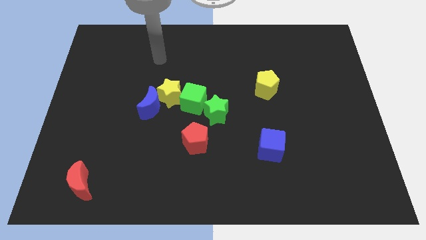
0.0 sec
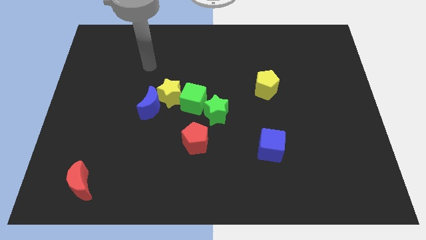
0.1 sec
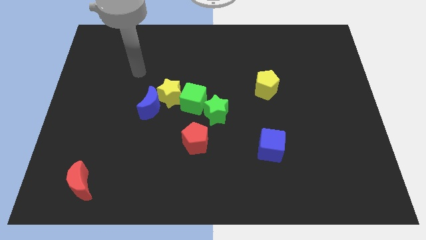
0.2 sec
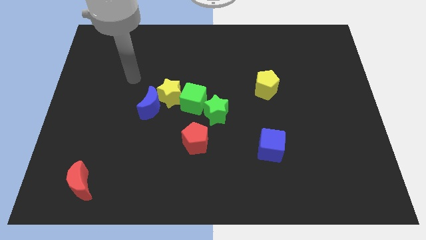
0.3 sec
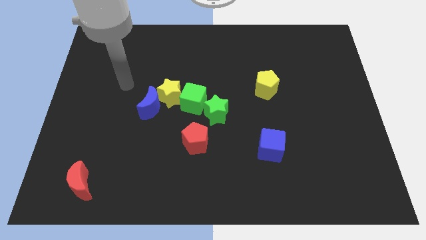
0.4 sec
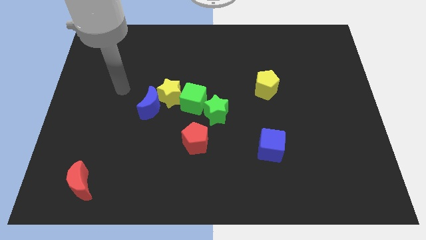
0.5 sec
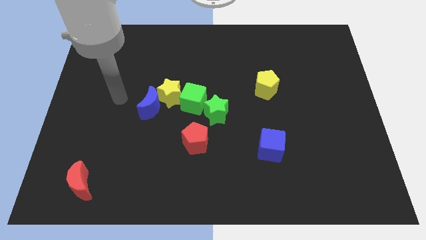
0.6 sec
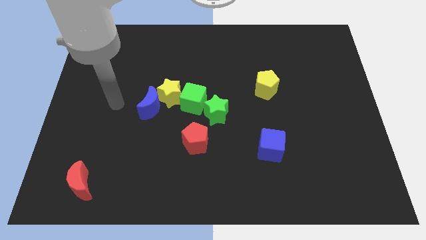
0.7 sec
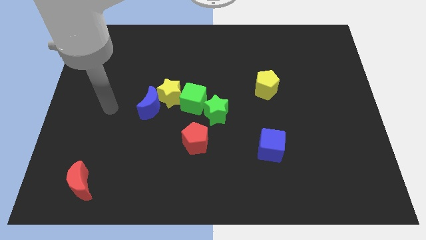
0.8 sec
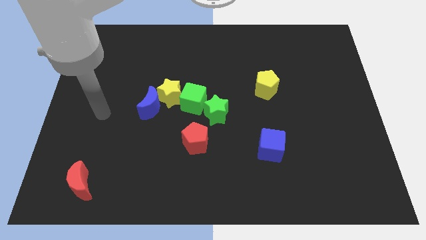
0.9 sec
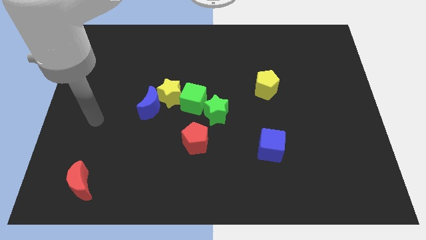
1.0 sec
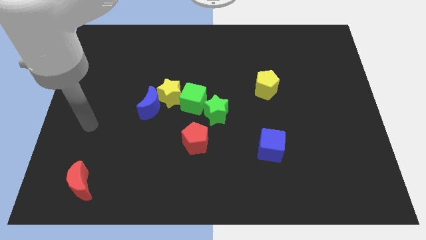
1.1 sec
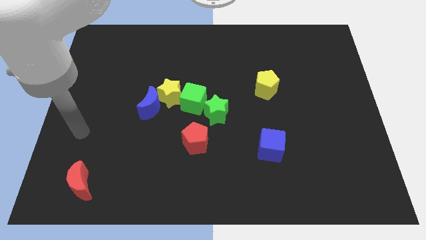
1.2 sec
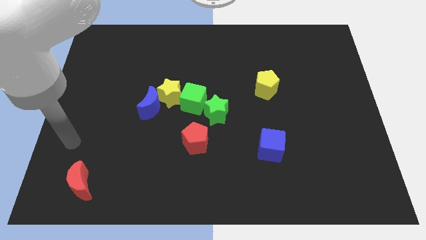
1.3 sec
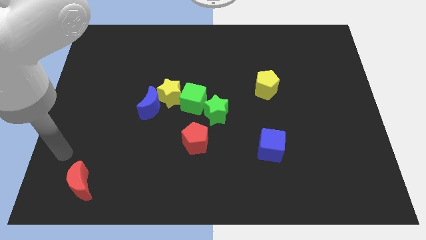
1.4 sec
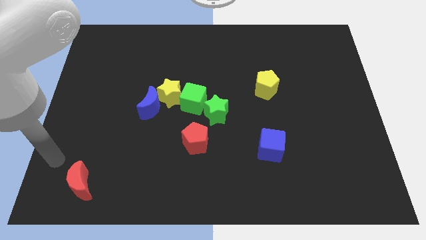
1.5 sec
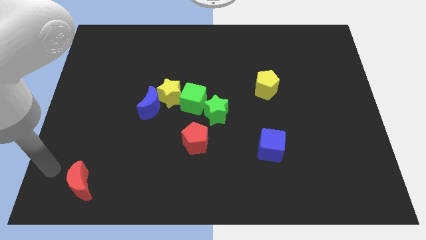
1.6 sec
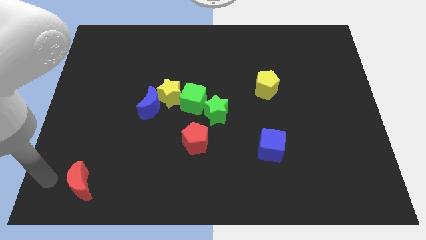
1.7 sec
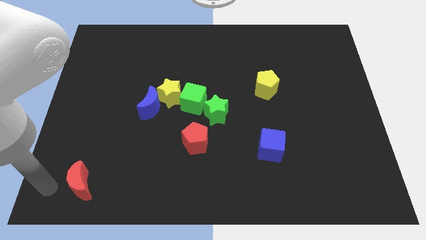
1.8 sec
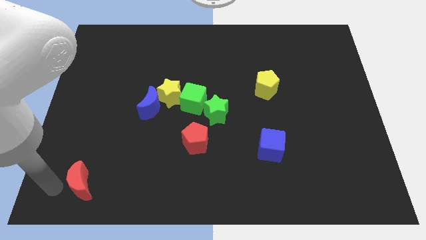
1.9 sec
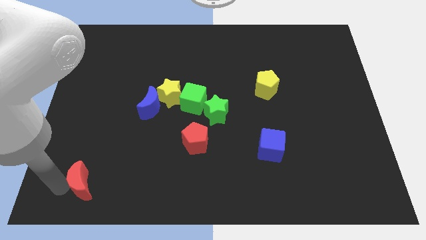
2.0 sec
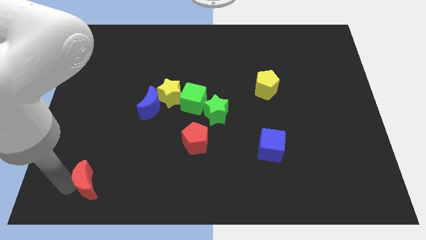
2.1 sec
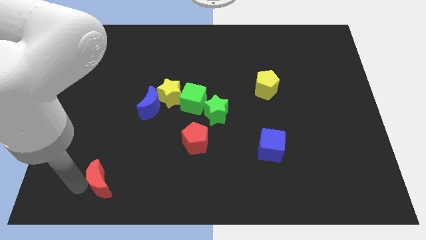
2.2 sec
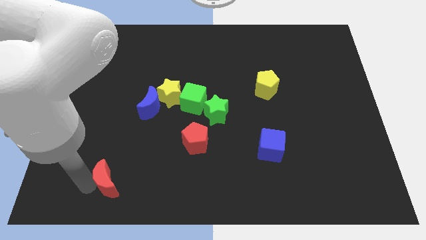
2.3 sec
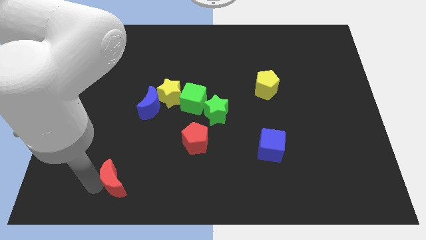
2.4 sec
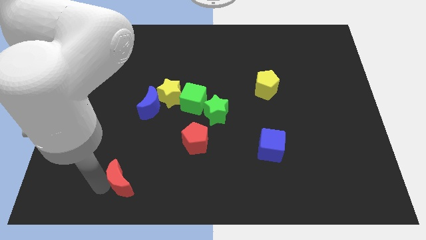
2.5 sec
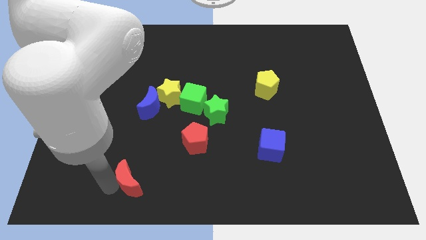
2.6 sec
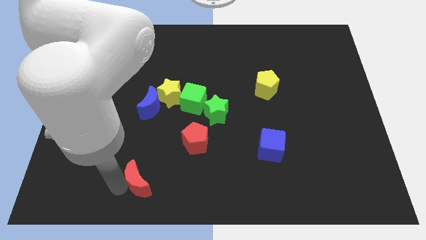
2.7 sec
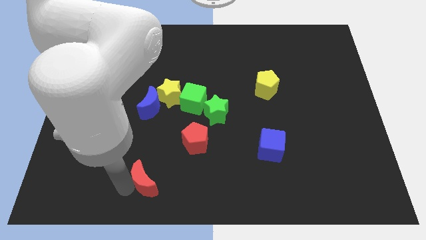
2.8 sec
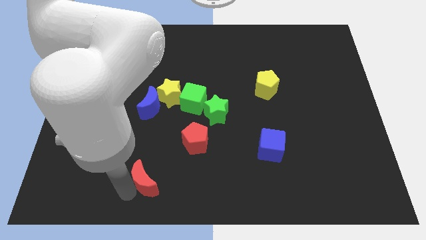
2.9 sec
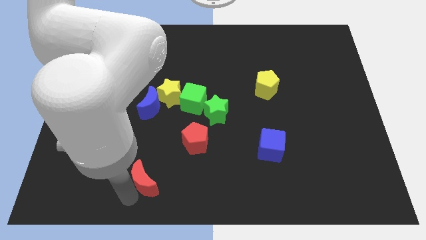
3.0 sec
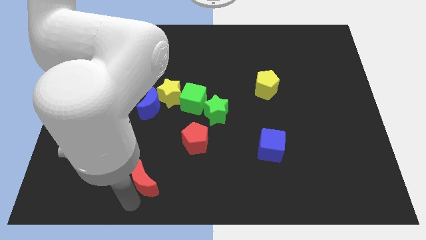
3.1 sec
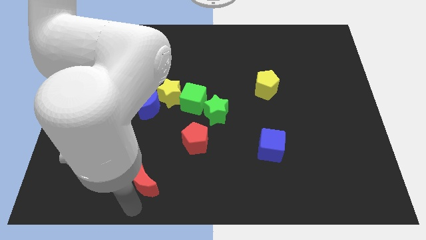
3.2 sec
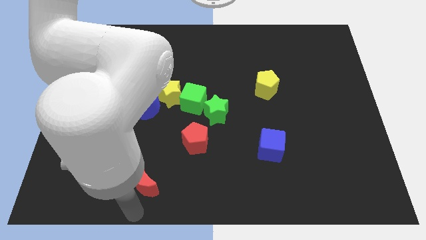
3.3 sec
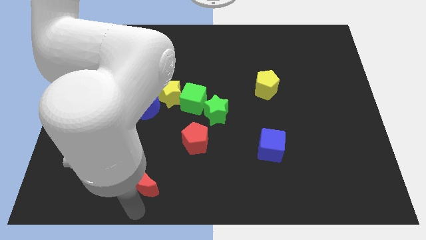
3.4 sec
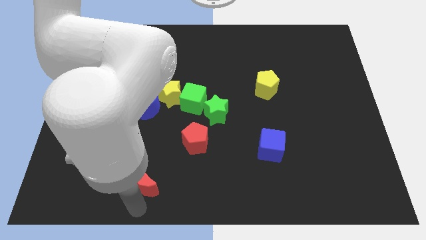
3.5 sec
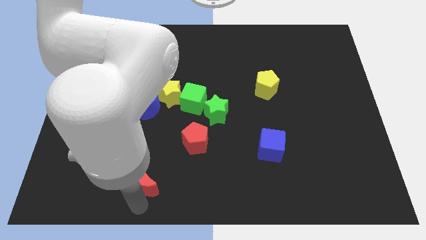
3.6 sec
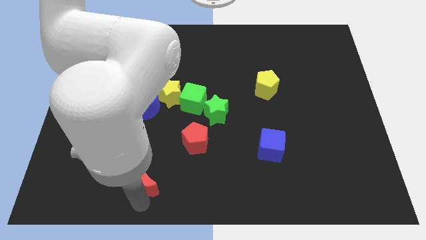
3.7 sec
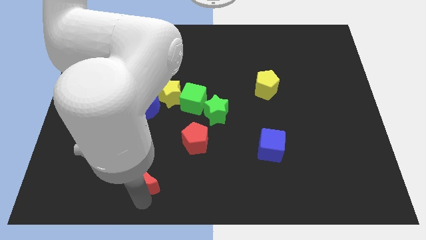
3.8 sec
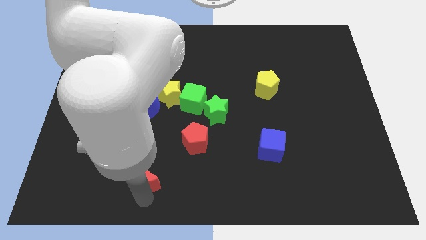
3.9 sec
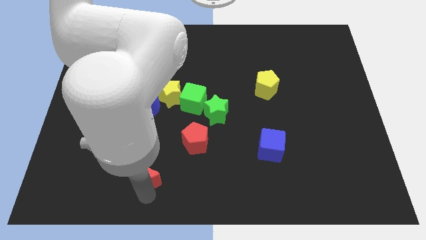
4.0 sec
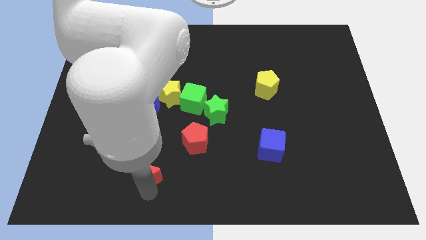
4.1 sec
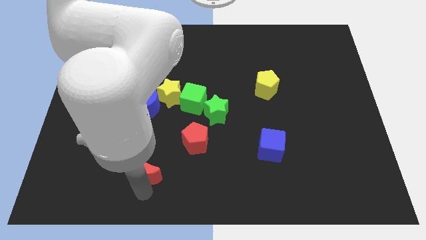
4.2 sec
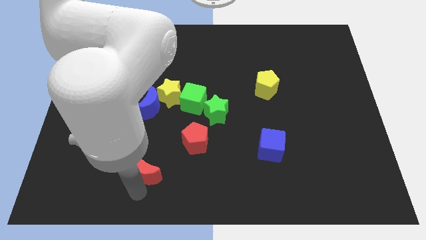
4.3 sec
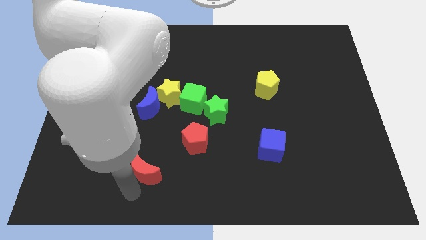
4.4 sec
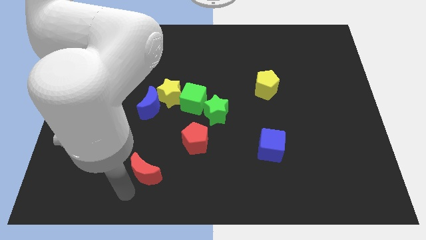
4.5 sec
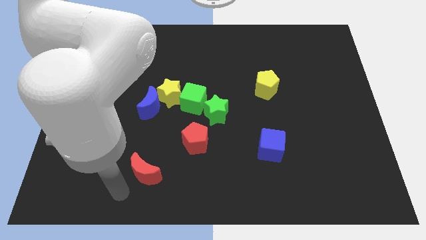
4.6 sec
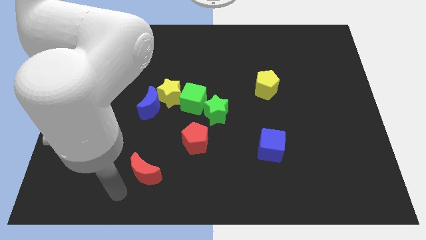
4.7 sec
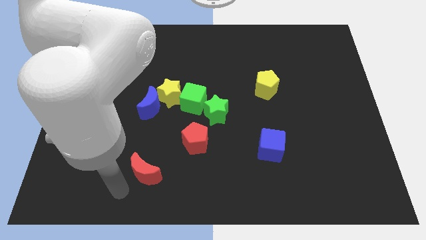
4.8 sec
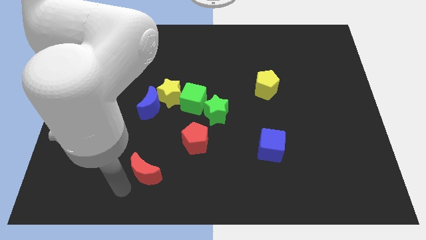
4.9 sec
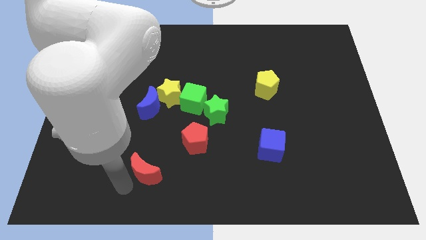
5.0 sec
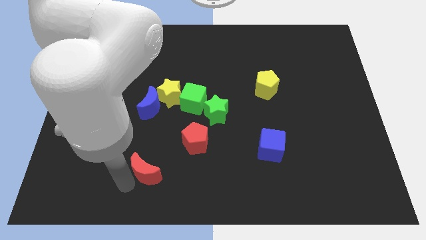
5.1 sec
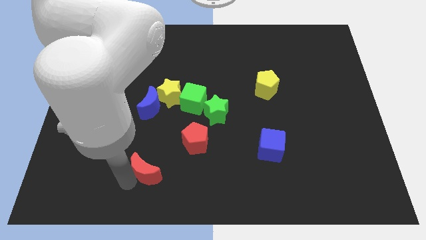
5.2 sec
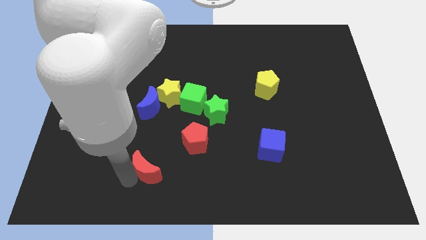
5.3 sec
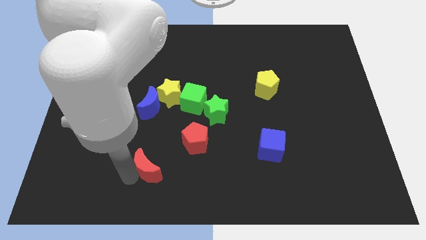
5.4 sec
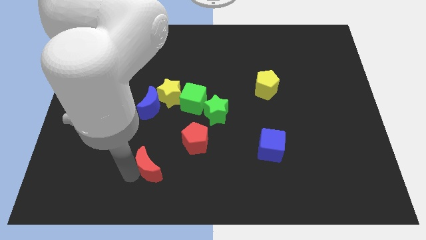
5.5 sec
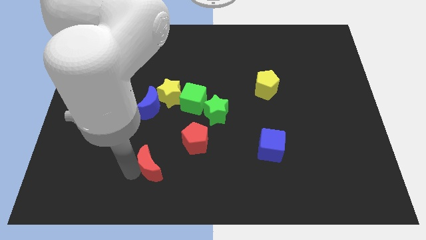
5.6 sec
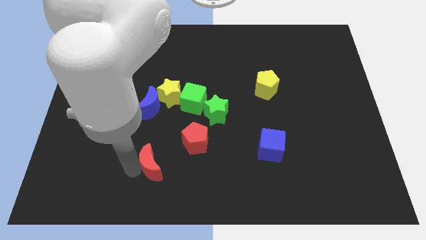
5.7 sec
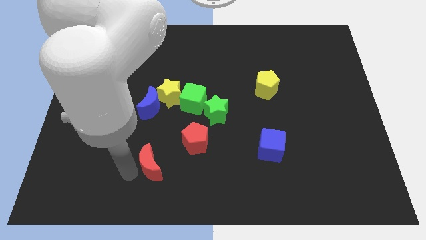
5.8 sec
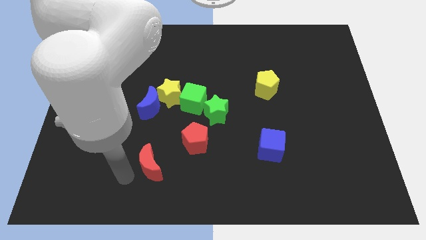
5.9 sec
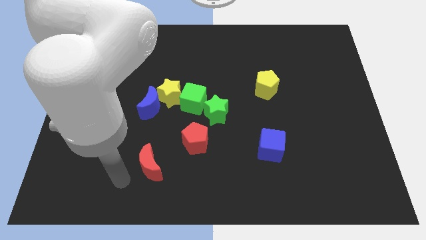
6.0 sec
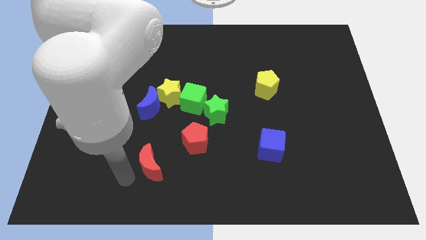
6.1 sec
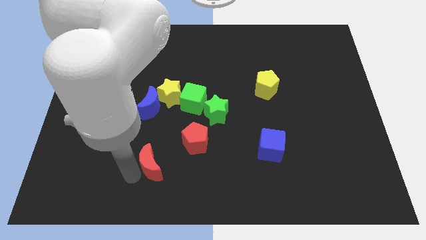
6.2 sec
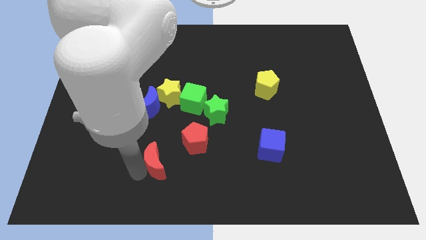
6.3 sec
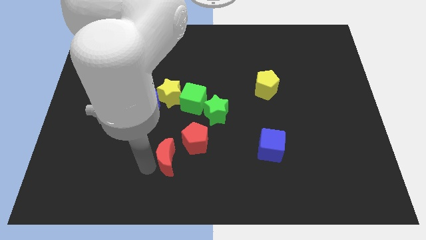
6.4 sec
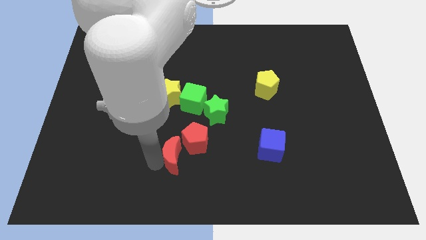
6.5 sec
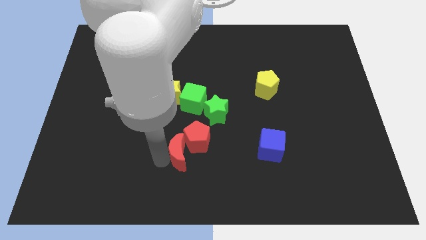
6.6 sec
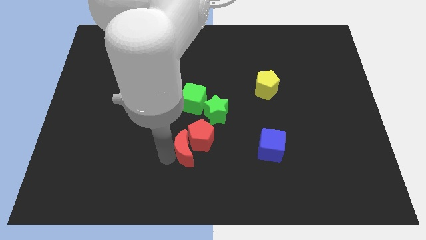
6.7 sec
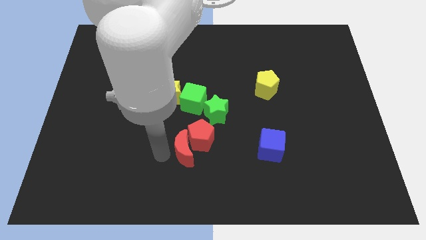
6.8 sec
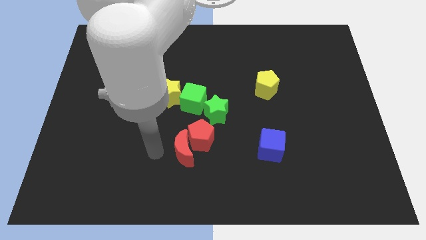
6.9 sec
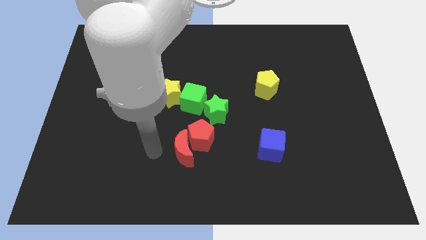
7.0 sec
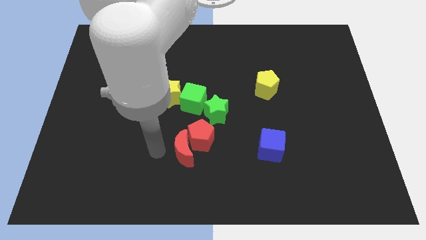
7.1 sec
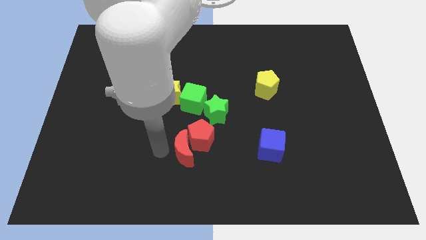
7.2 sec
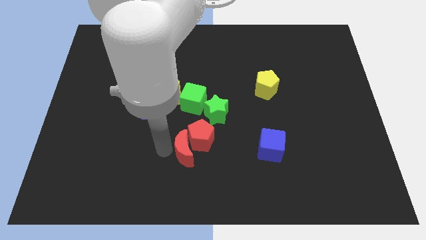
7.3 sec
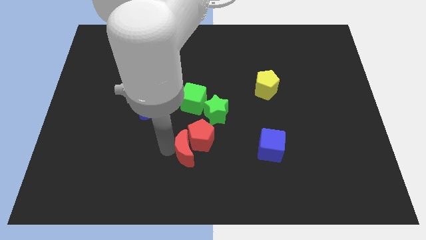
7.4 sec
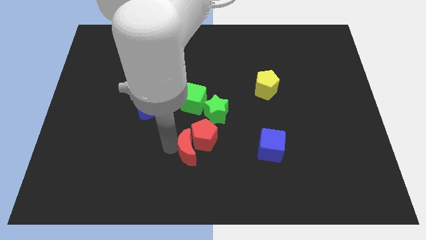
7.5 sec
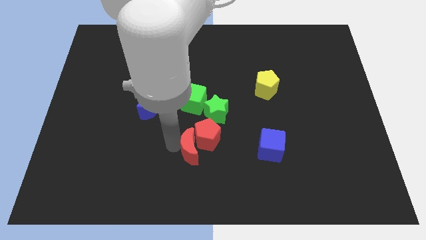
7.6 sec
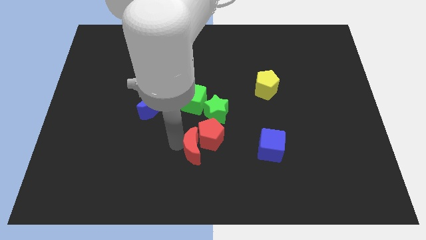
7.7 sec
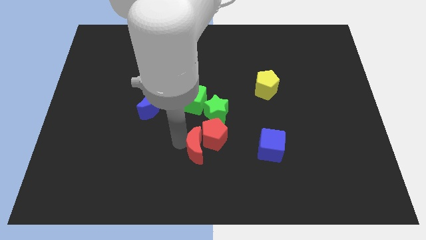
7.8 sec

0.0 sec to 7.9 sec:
put the red moon to the bottom side of the green star

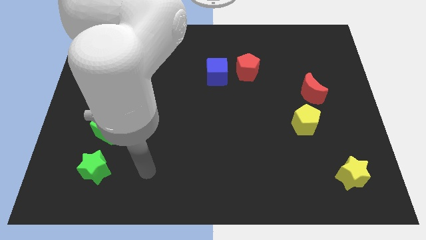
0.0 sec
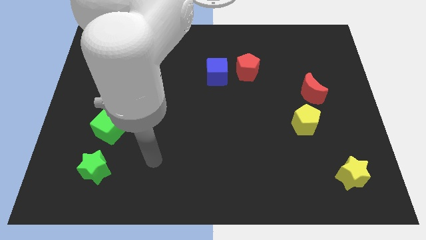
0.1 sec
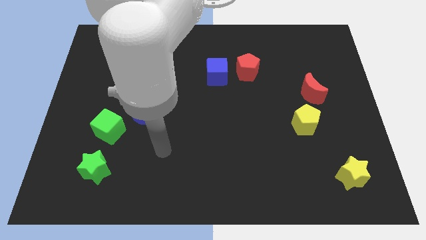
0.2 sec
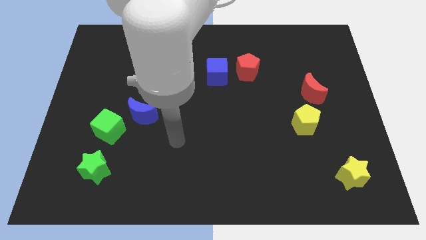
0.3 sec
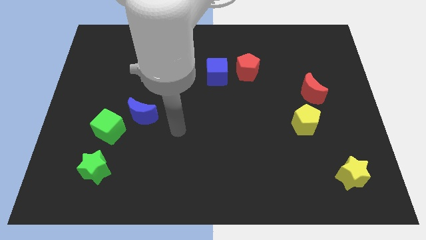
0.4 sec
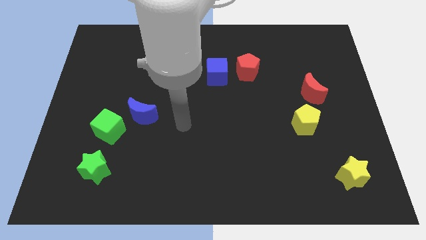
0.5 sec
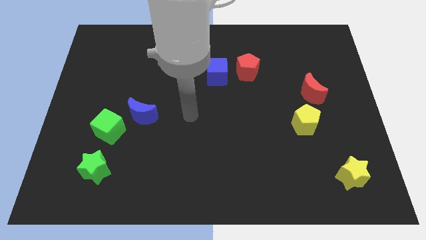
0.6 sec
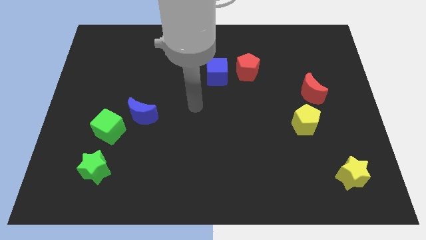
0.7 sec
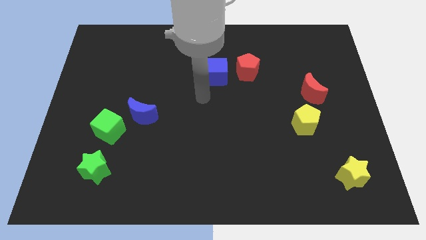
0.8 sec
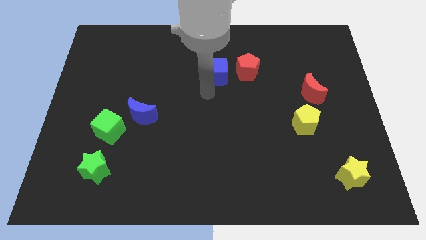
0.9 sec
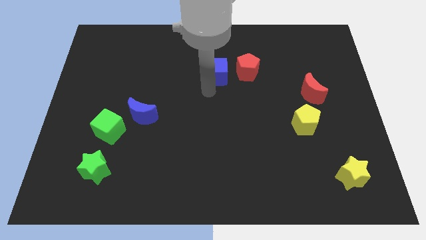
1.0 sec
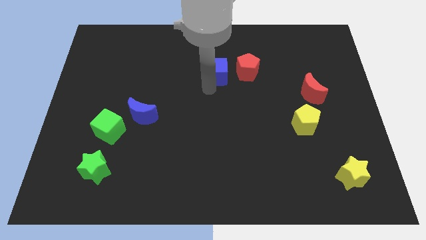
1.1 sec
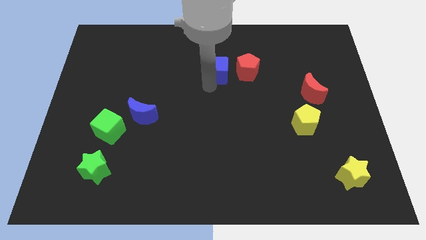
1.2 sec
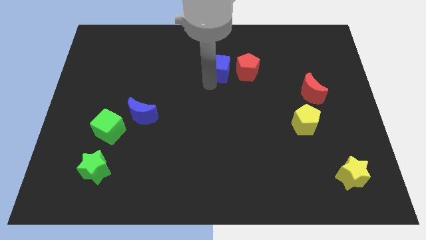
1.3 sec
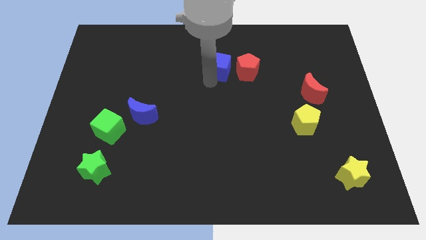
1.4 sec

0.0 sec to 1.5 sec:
move the blue cube to the top left of the red pentagon
